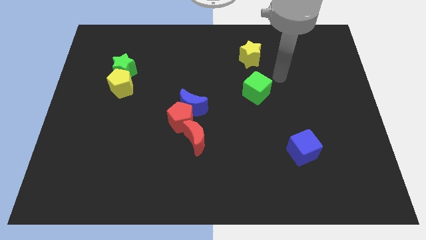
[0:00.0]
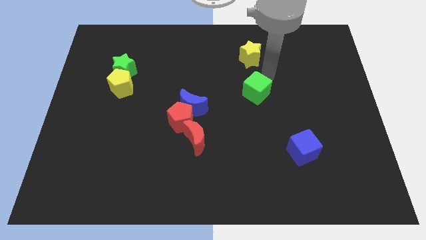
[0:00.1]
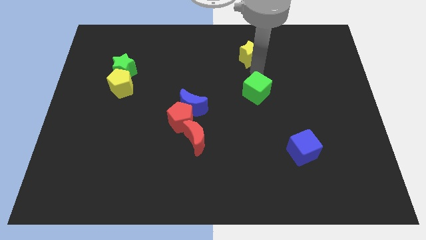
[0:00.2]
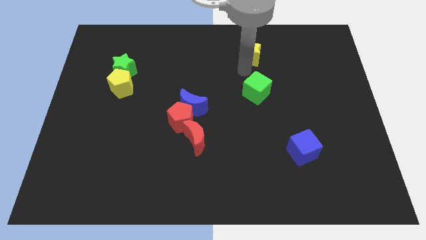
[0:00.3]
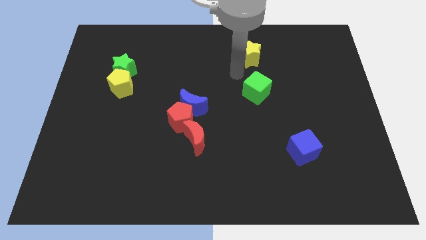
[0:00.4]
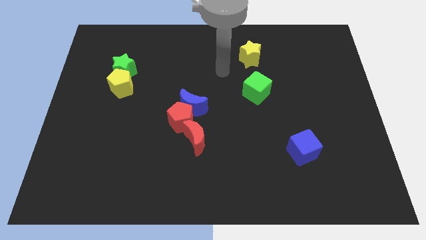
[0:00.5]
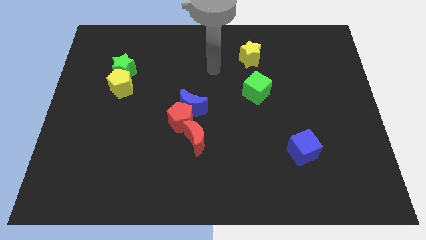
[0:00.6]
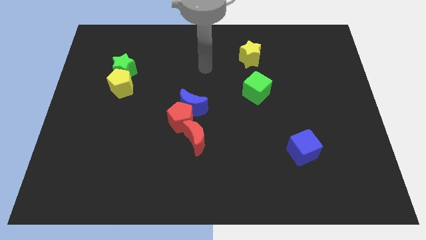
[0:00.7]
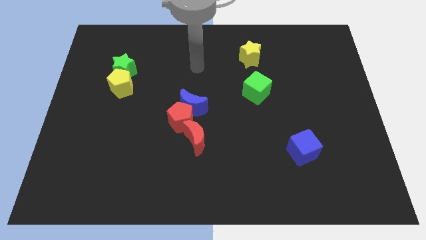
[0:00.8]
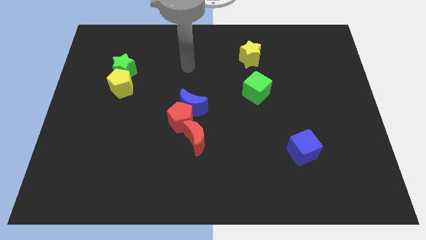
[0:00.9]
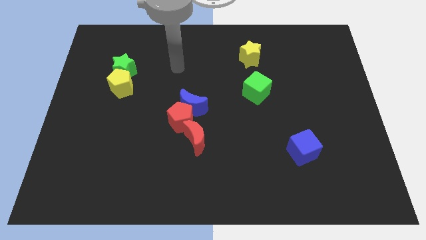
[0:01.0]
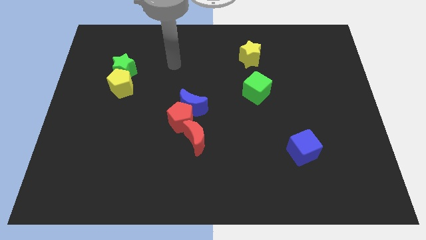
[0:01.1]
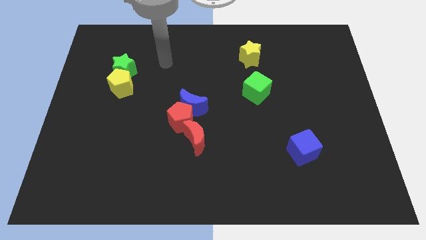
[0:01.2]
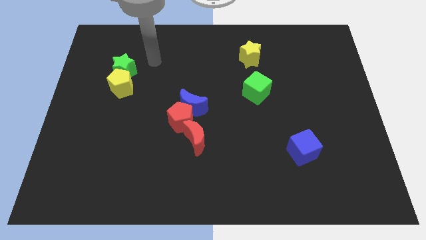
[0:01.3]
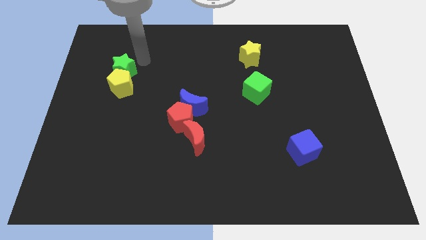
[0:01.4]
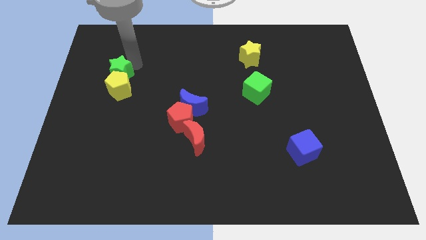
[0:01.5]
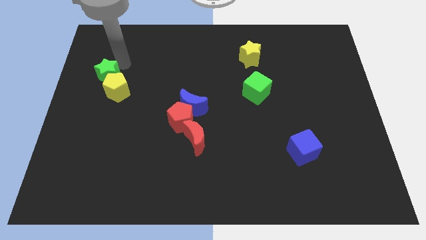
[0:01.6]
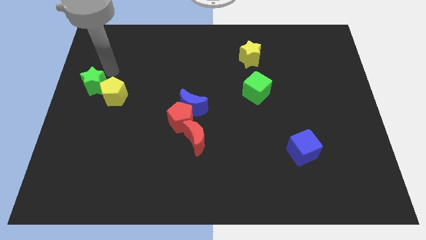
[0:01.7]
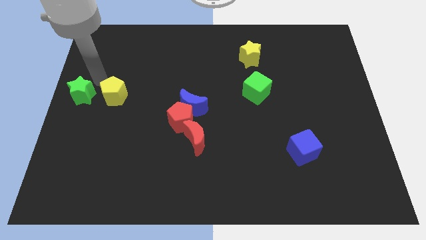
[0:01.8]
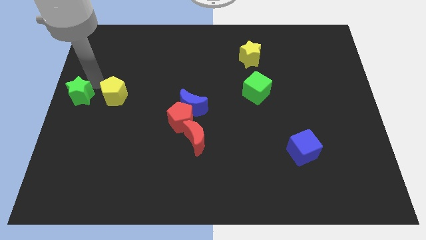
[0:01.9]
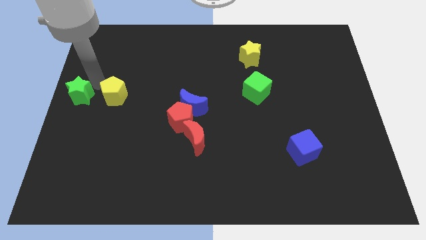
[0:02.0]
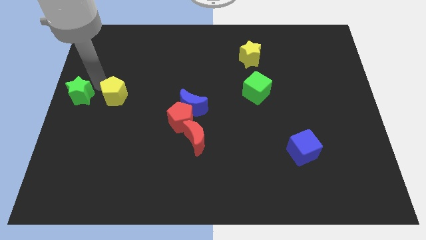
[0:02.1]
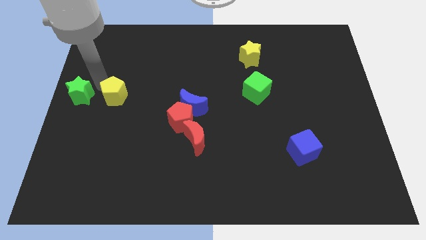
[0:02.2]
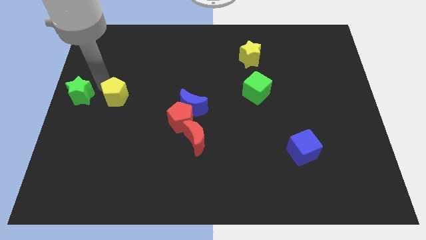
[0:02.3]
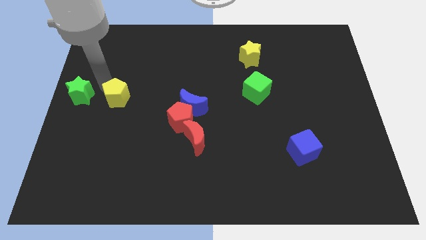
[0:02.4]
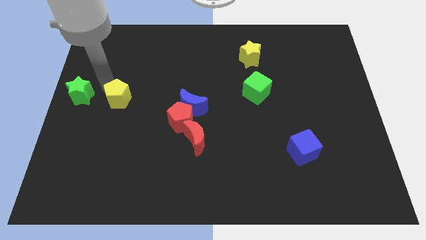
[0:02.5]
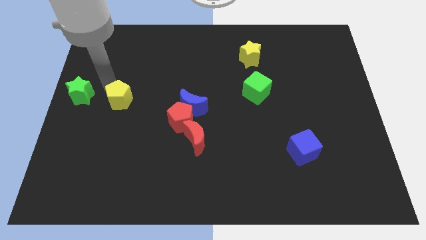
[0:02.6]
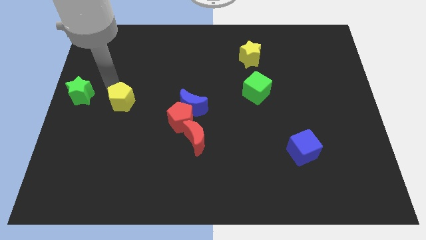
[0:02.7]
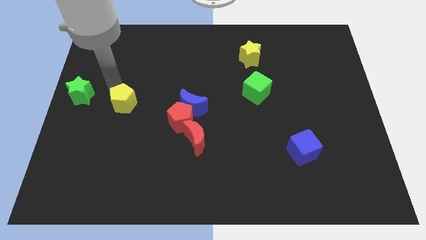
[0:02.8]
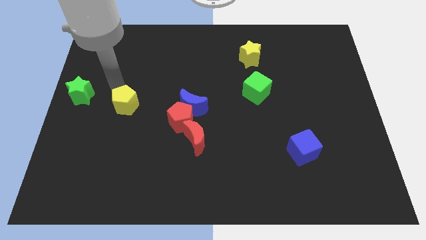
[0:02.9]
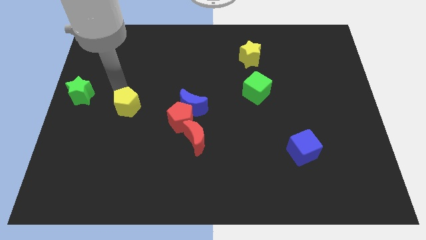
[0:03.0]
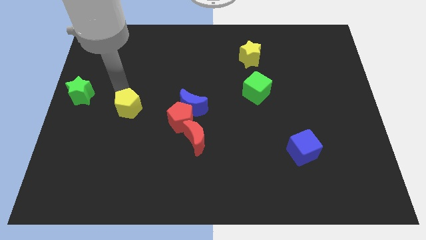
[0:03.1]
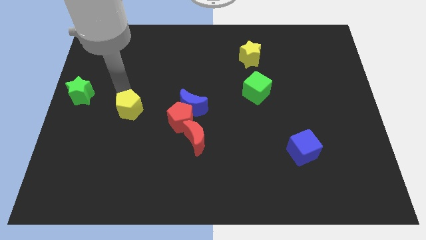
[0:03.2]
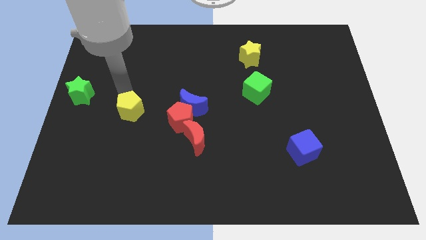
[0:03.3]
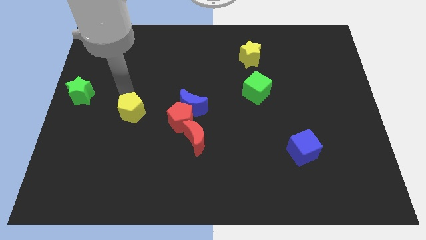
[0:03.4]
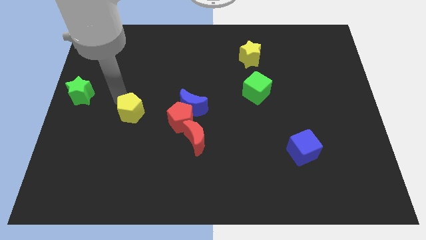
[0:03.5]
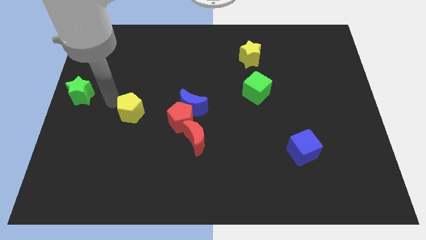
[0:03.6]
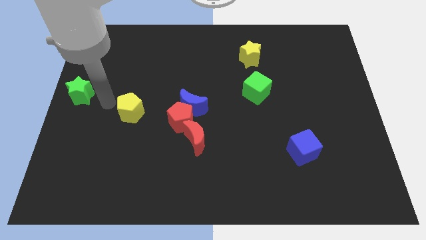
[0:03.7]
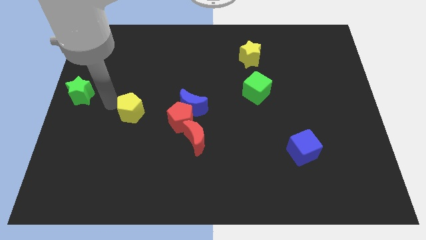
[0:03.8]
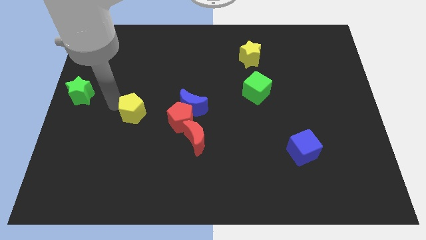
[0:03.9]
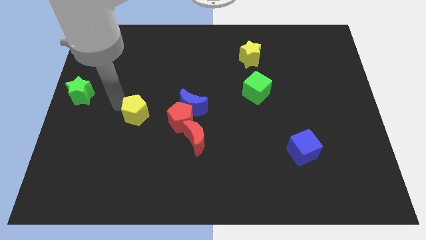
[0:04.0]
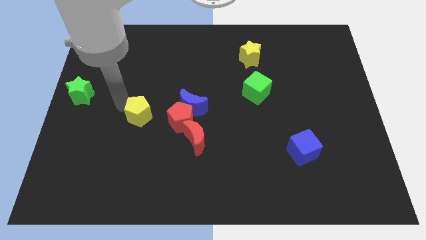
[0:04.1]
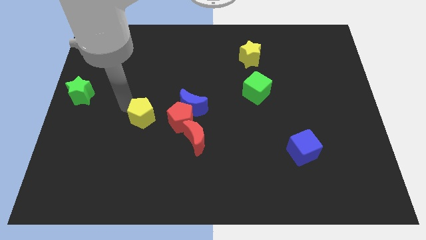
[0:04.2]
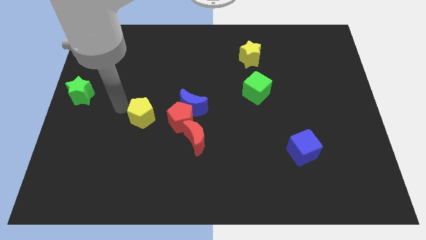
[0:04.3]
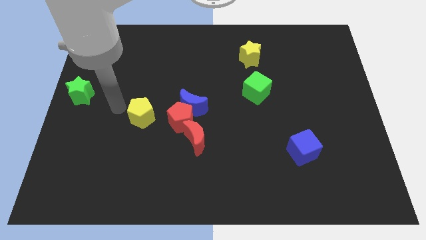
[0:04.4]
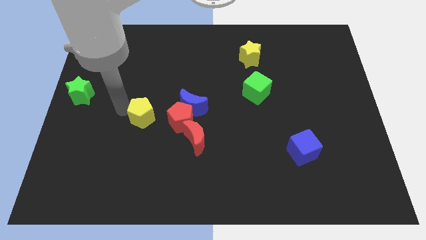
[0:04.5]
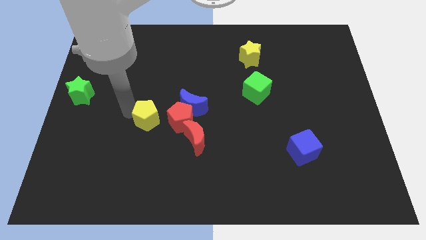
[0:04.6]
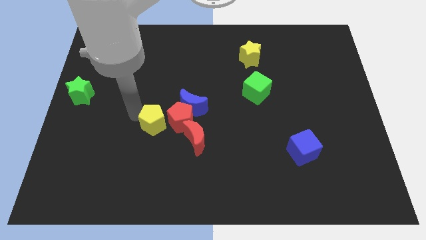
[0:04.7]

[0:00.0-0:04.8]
put the yellow pentagon to the bottom left of the blue moon

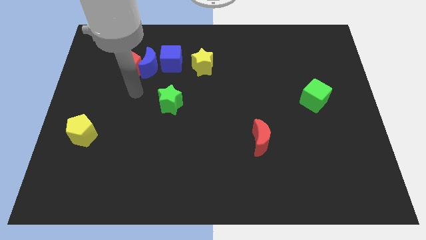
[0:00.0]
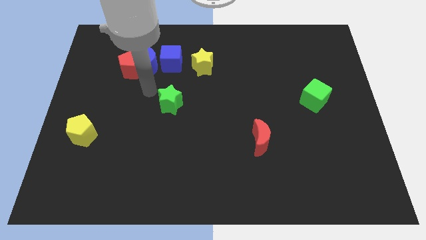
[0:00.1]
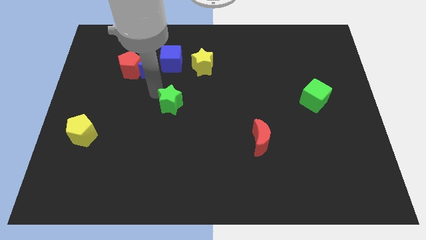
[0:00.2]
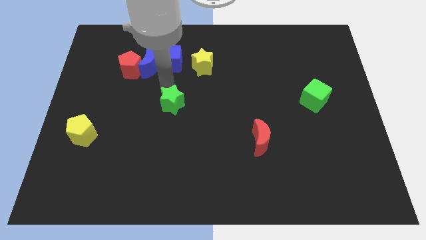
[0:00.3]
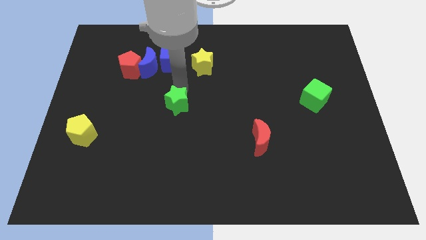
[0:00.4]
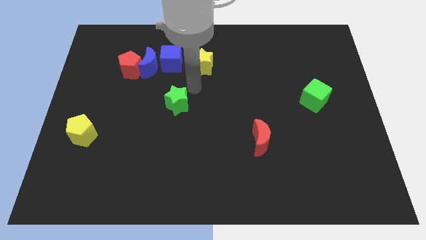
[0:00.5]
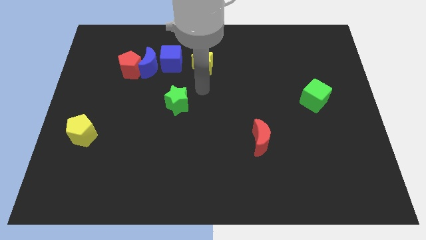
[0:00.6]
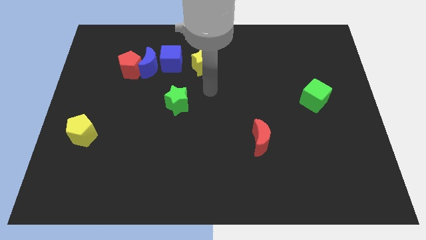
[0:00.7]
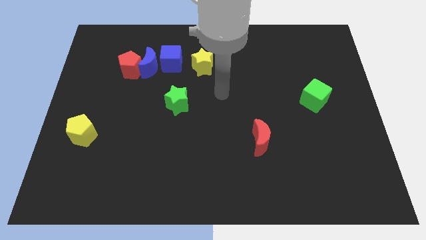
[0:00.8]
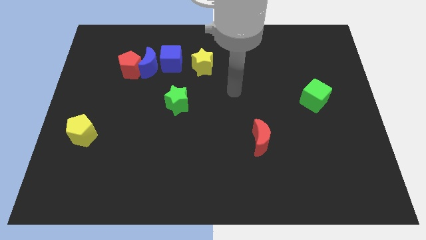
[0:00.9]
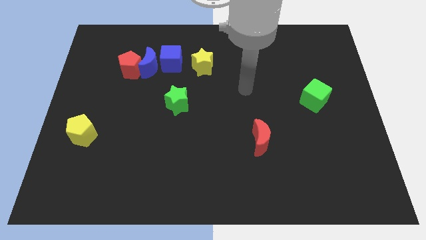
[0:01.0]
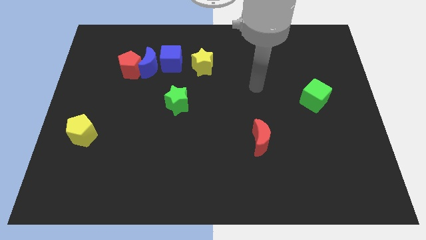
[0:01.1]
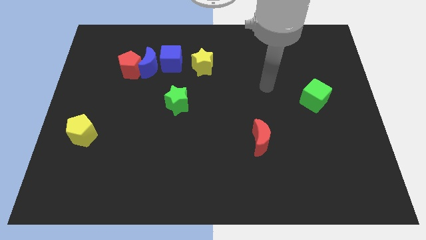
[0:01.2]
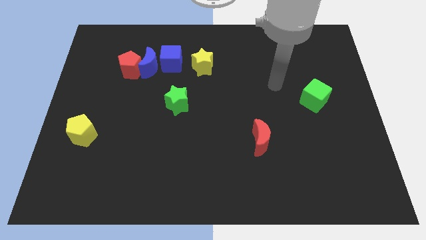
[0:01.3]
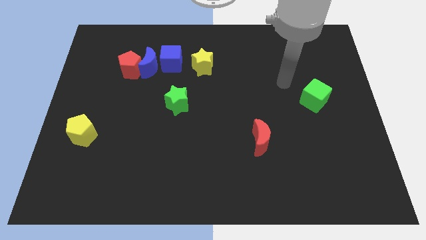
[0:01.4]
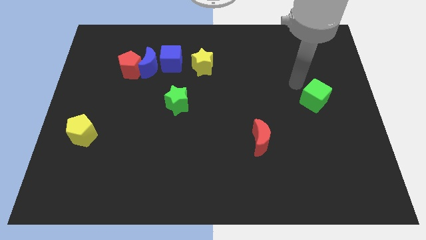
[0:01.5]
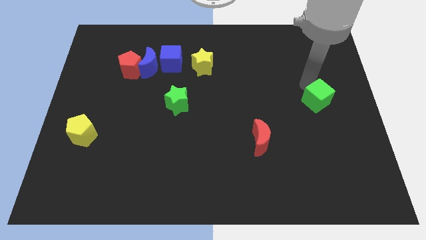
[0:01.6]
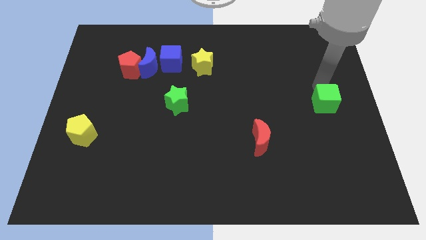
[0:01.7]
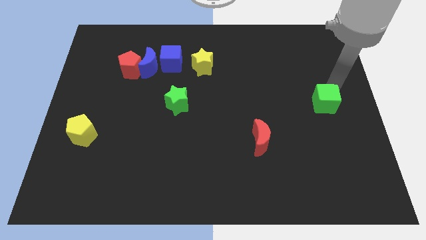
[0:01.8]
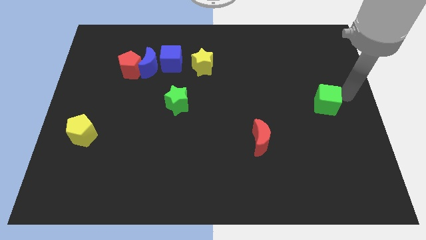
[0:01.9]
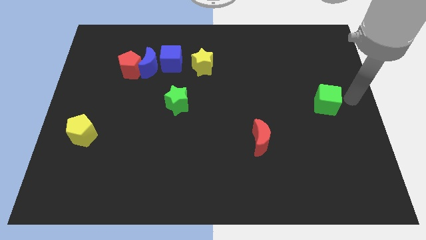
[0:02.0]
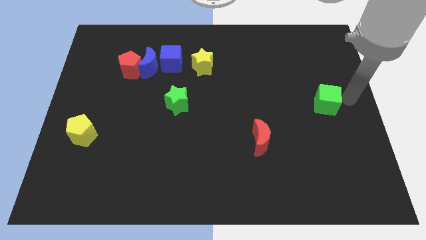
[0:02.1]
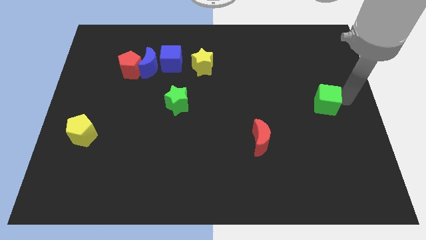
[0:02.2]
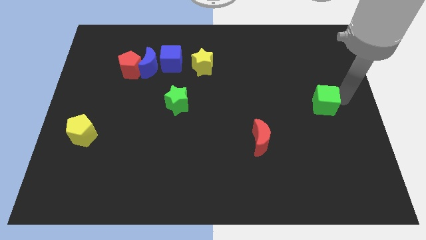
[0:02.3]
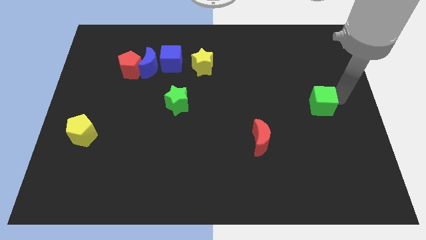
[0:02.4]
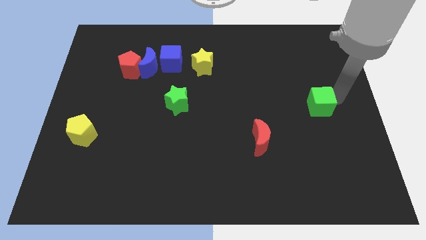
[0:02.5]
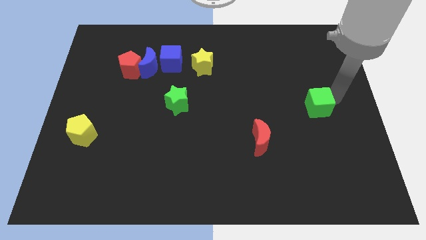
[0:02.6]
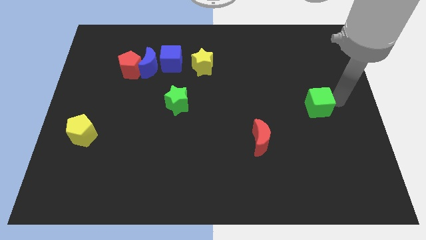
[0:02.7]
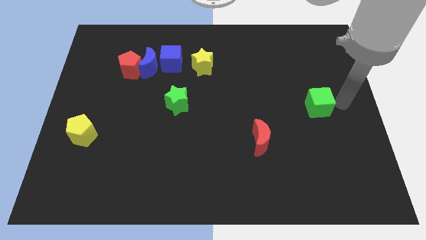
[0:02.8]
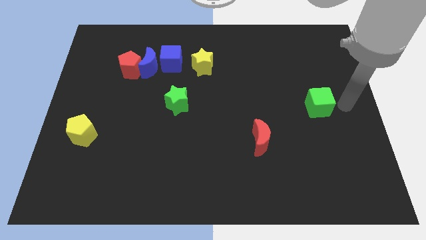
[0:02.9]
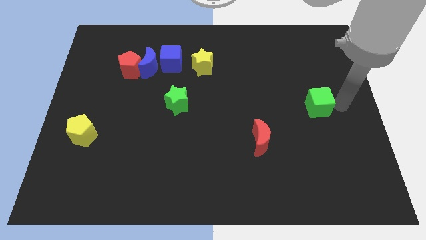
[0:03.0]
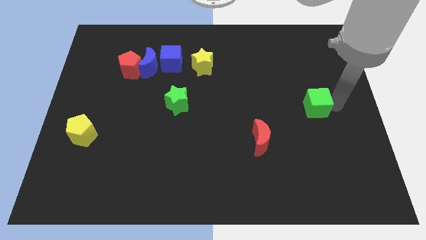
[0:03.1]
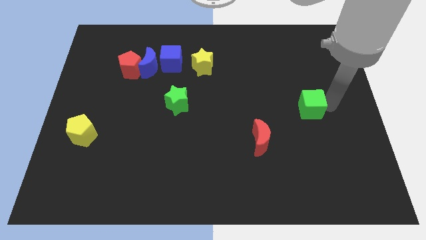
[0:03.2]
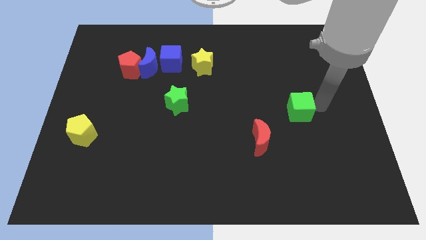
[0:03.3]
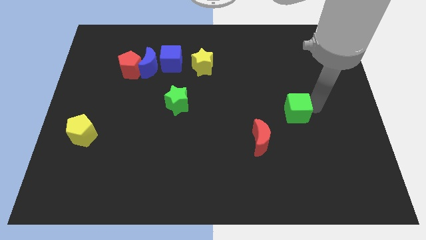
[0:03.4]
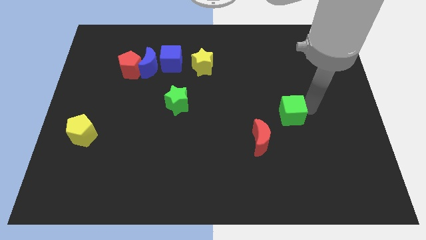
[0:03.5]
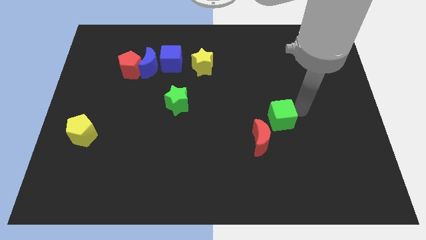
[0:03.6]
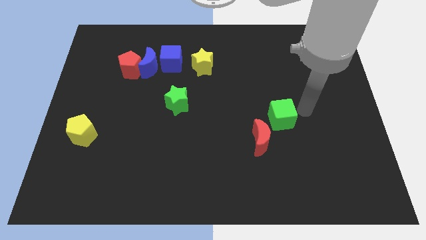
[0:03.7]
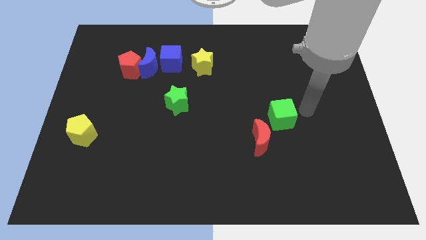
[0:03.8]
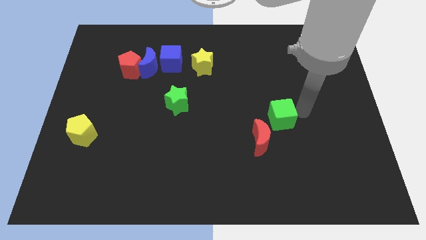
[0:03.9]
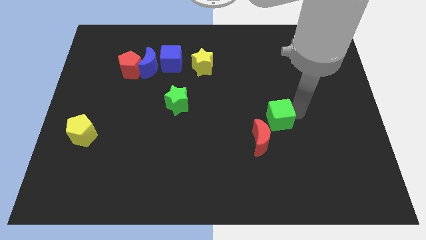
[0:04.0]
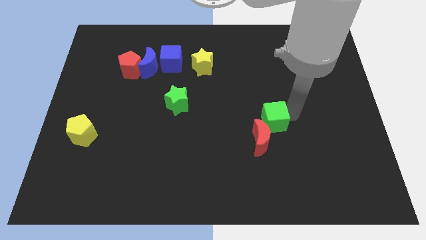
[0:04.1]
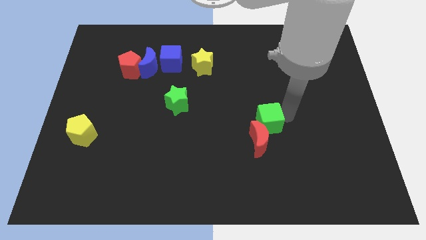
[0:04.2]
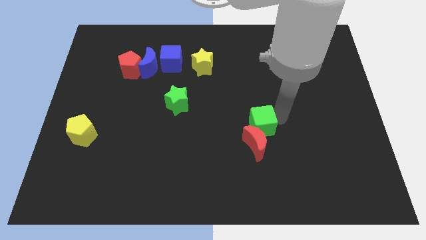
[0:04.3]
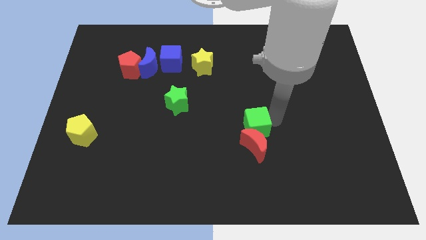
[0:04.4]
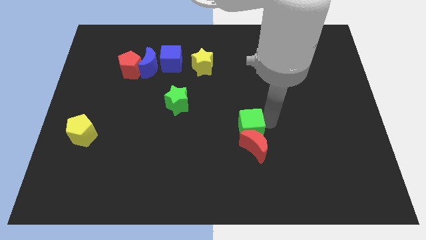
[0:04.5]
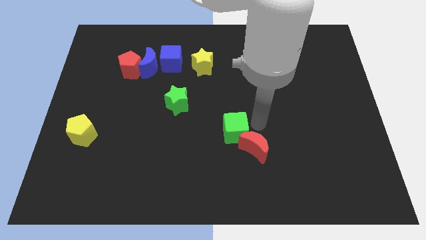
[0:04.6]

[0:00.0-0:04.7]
put the green cube left of the red moon
